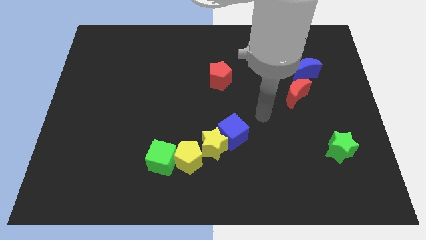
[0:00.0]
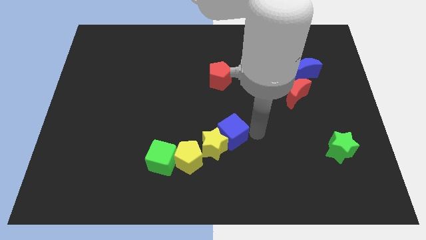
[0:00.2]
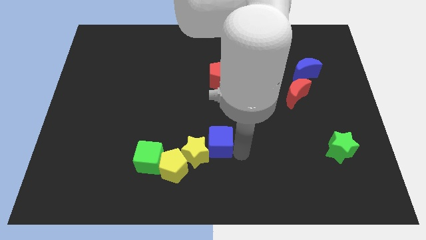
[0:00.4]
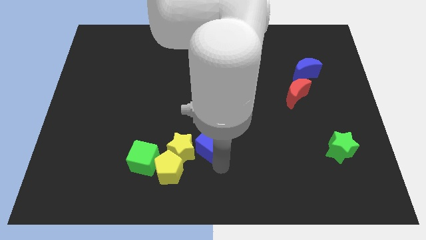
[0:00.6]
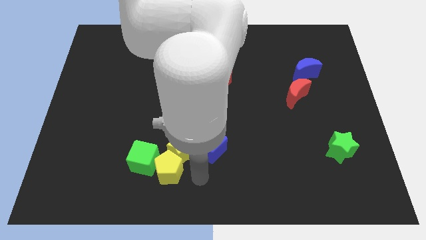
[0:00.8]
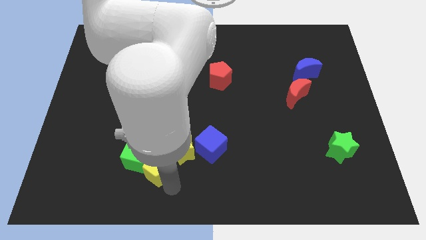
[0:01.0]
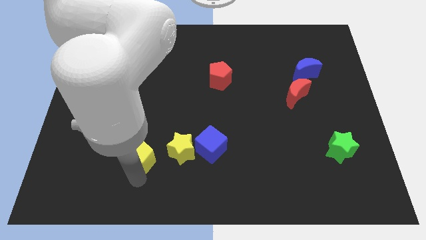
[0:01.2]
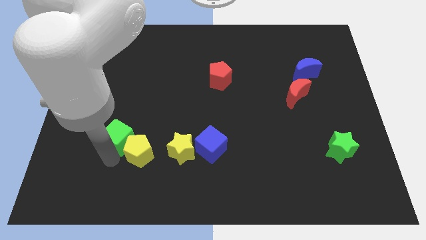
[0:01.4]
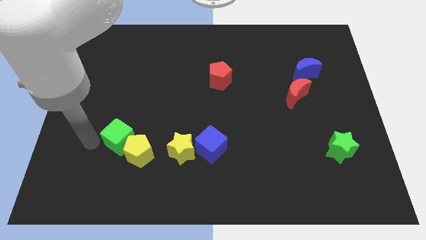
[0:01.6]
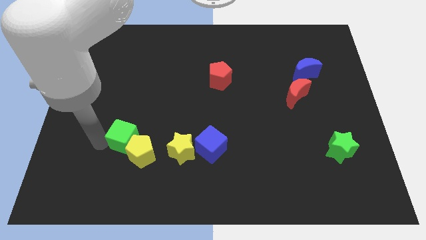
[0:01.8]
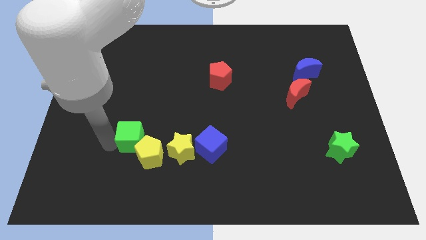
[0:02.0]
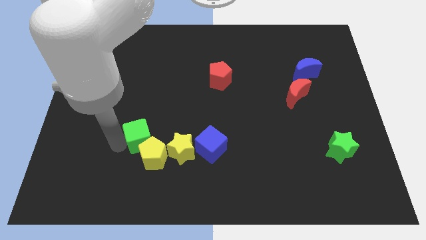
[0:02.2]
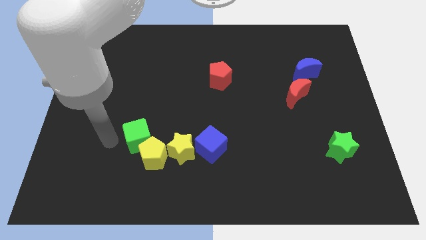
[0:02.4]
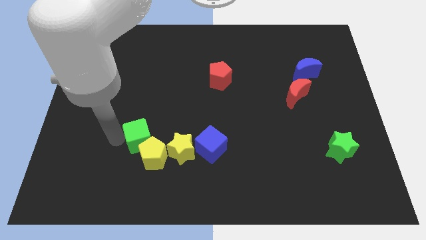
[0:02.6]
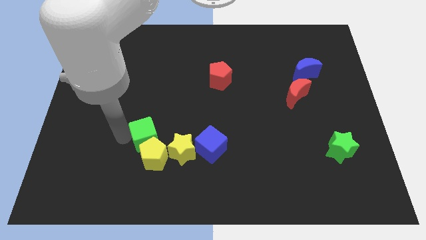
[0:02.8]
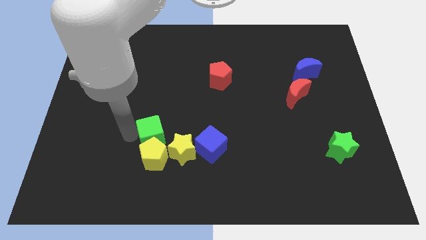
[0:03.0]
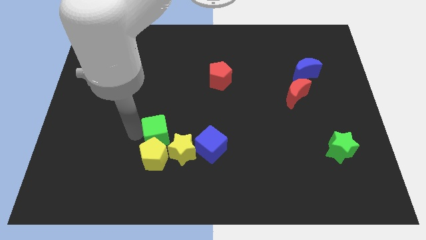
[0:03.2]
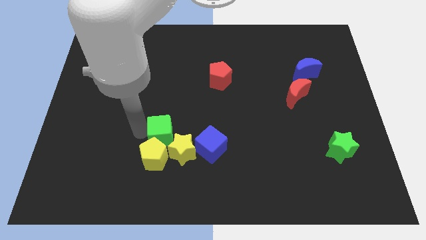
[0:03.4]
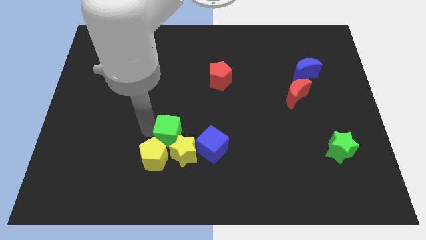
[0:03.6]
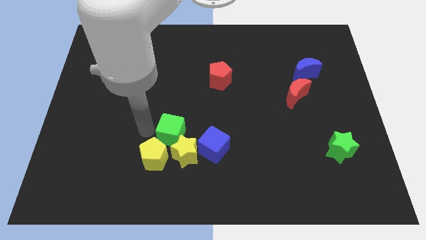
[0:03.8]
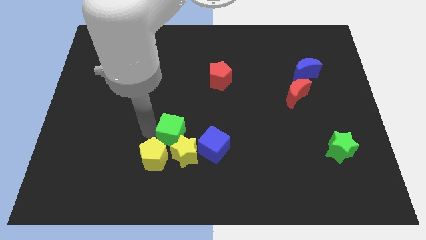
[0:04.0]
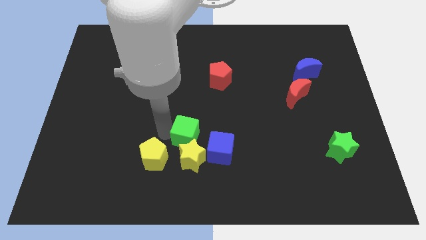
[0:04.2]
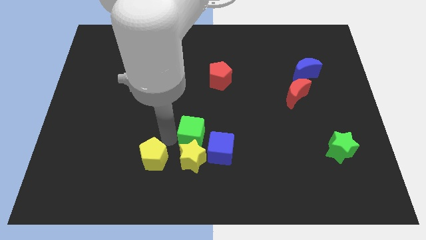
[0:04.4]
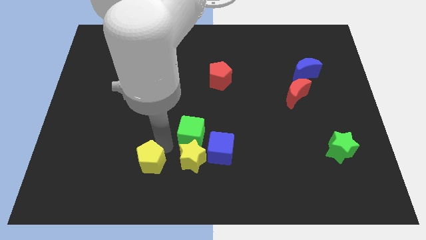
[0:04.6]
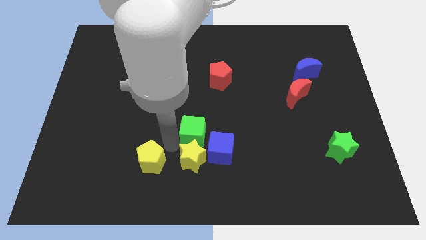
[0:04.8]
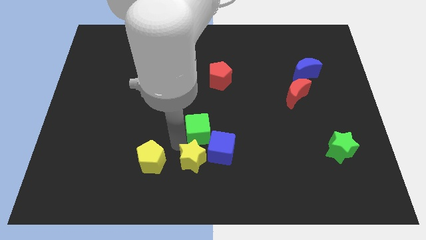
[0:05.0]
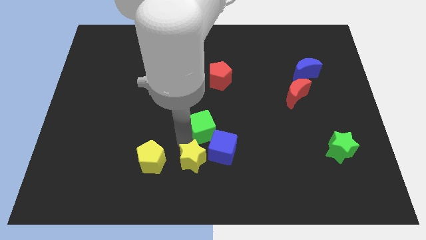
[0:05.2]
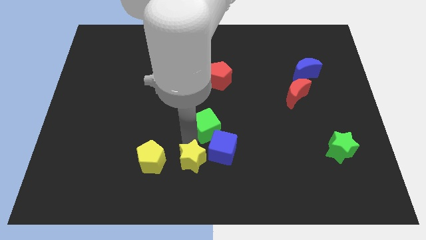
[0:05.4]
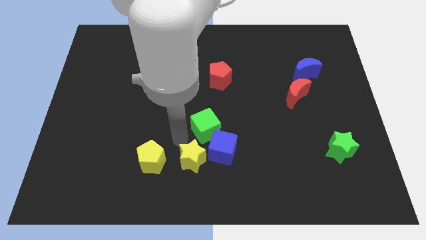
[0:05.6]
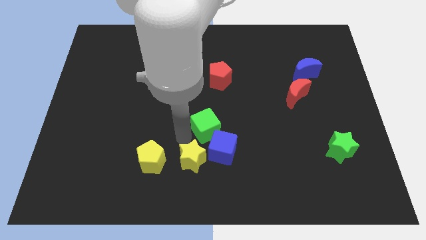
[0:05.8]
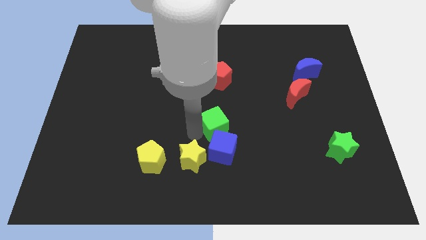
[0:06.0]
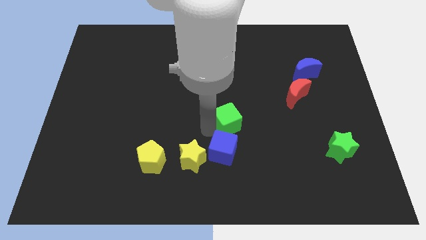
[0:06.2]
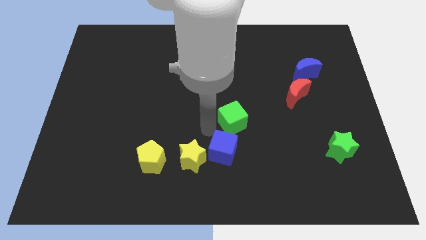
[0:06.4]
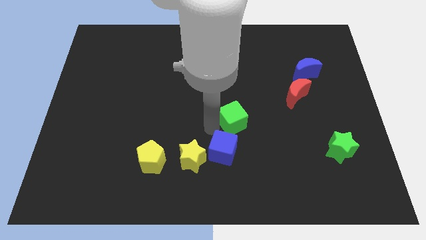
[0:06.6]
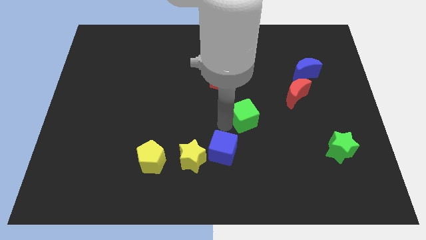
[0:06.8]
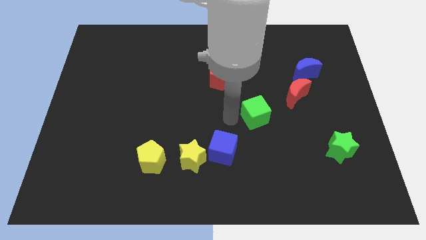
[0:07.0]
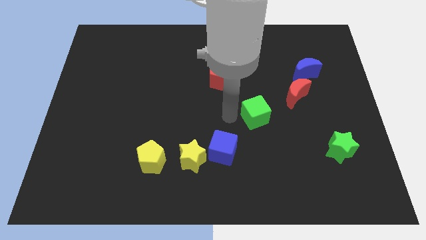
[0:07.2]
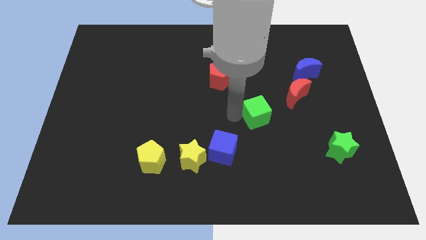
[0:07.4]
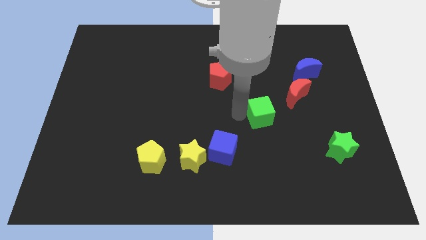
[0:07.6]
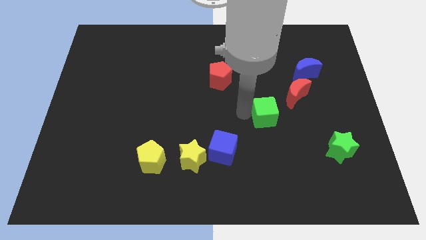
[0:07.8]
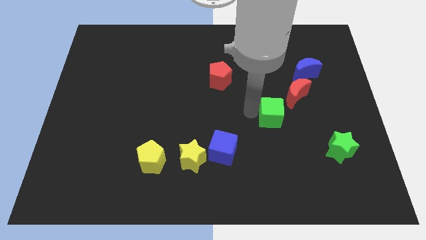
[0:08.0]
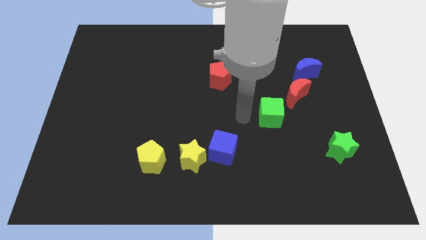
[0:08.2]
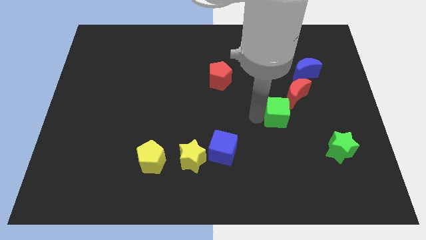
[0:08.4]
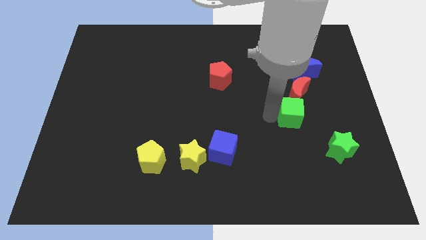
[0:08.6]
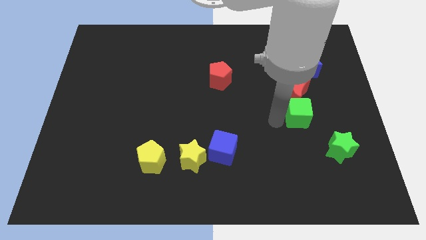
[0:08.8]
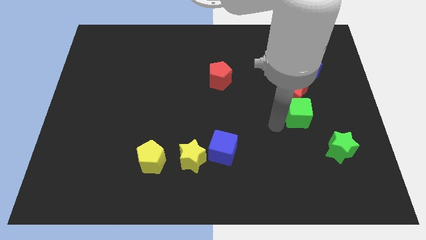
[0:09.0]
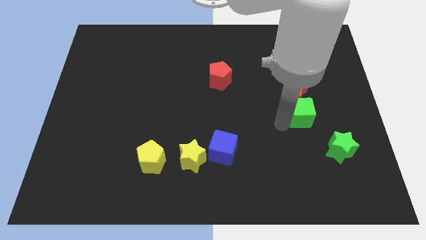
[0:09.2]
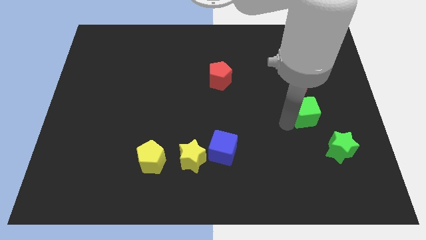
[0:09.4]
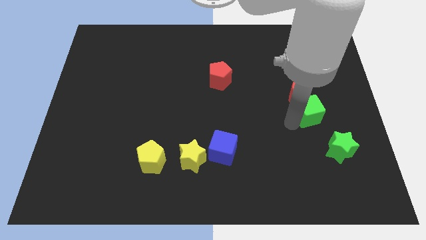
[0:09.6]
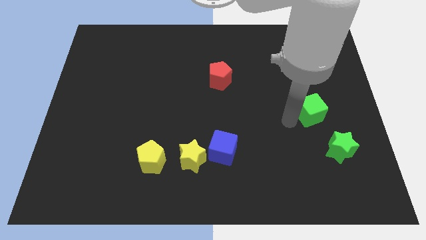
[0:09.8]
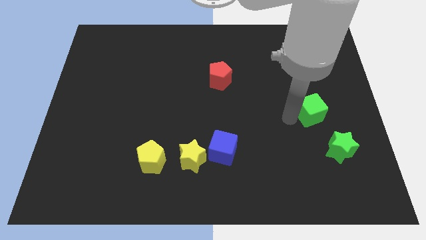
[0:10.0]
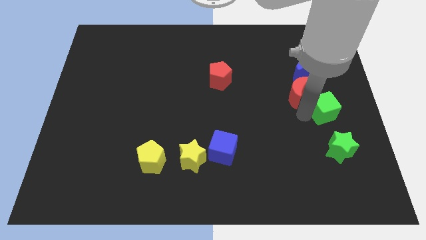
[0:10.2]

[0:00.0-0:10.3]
slide the green cube to the right side of the board

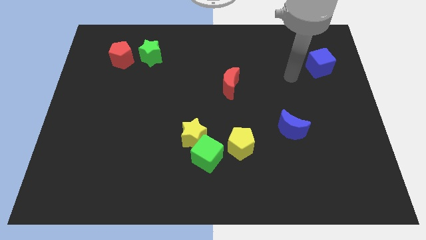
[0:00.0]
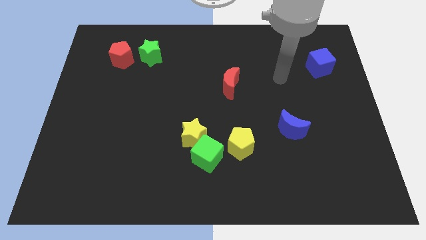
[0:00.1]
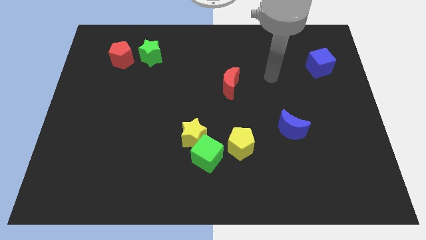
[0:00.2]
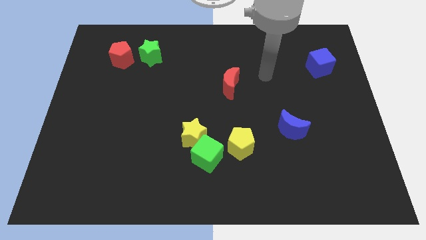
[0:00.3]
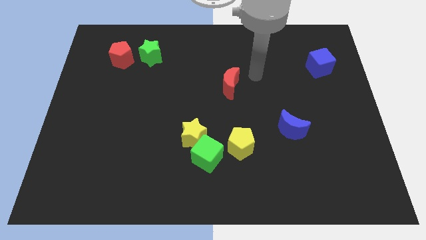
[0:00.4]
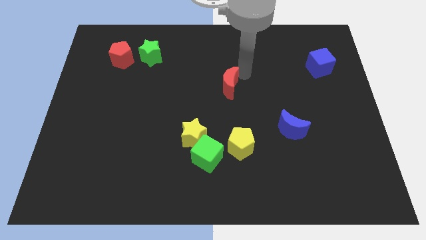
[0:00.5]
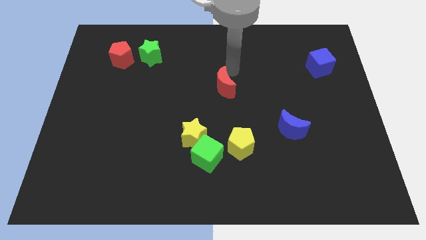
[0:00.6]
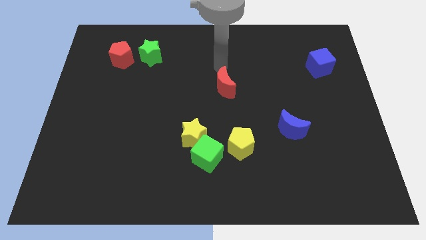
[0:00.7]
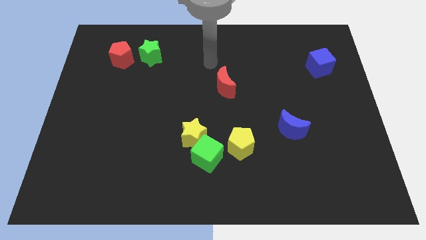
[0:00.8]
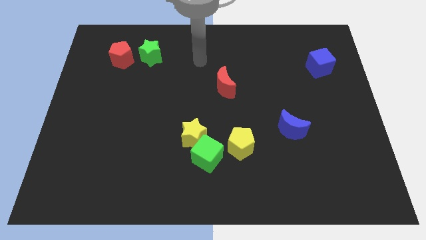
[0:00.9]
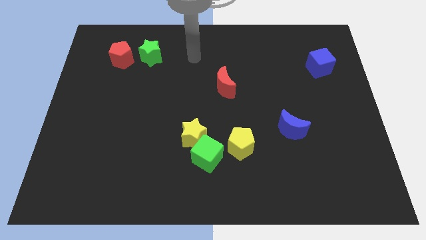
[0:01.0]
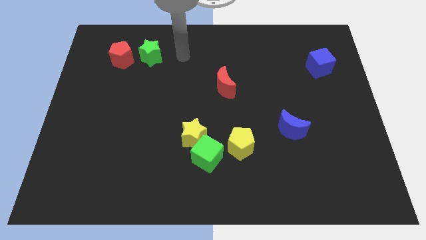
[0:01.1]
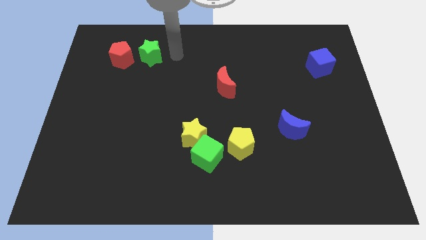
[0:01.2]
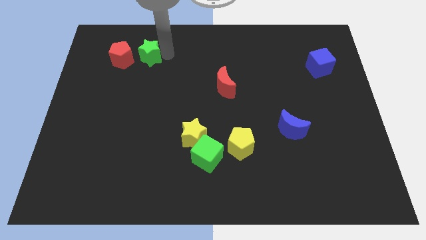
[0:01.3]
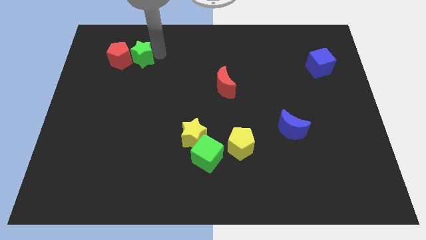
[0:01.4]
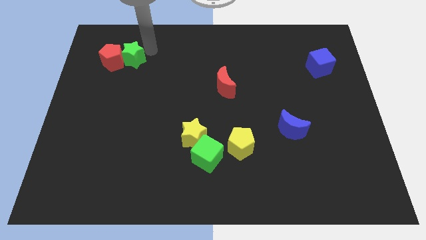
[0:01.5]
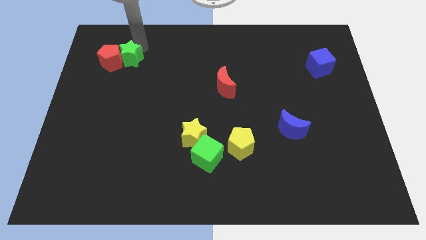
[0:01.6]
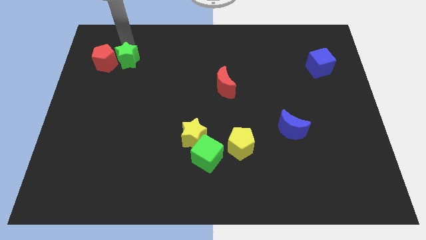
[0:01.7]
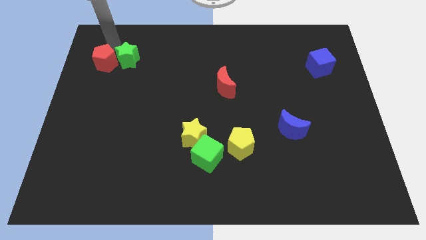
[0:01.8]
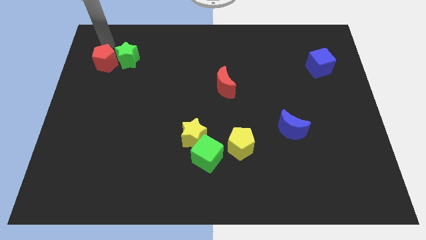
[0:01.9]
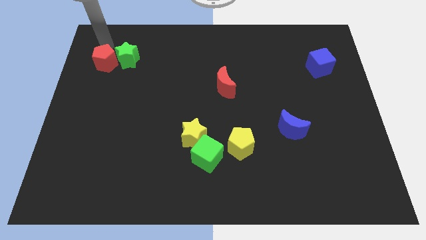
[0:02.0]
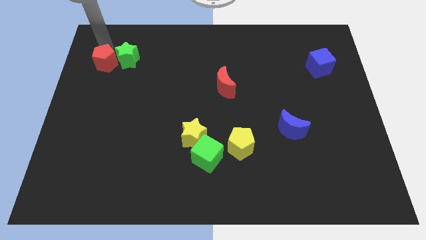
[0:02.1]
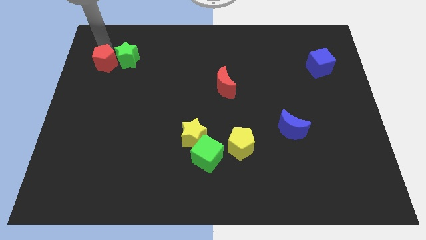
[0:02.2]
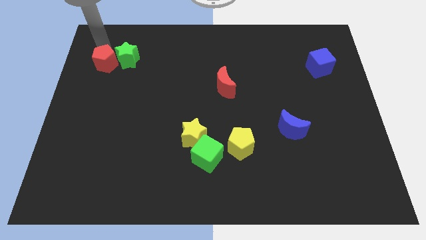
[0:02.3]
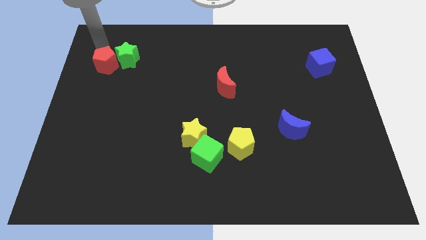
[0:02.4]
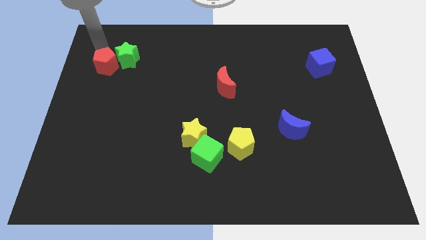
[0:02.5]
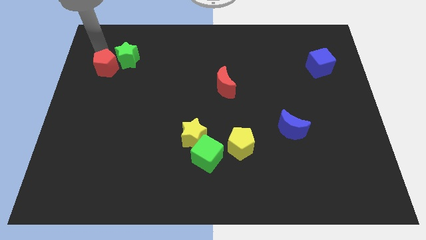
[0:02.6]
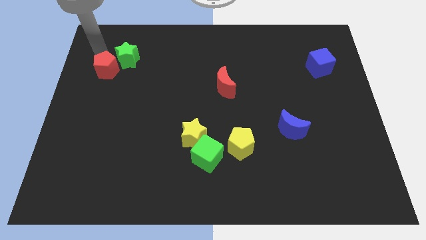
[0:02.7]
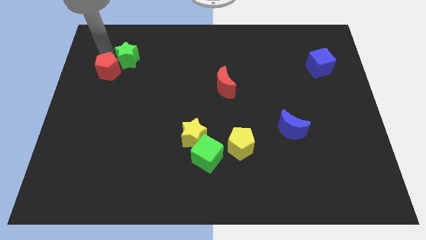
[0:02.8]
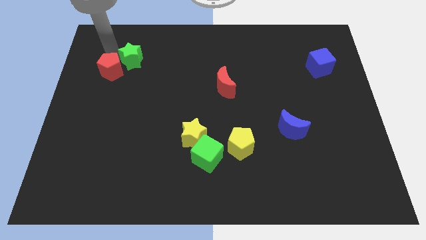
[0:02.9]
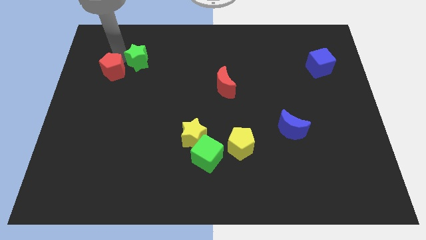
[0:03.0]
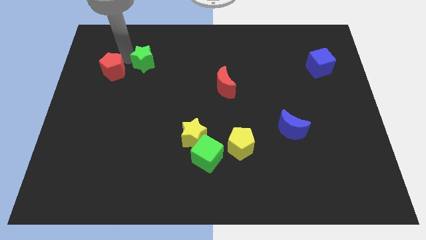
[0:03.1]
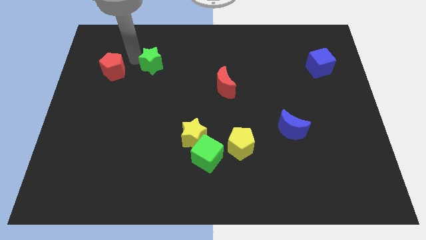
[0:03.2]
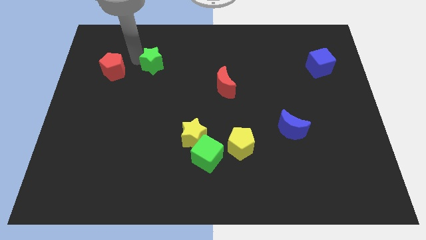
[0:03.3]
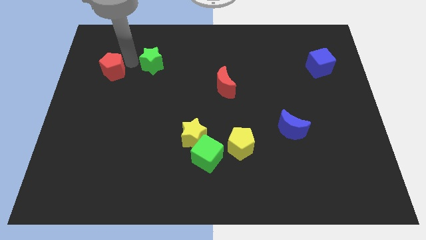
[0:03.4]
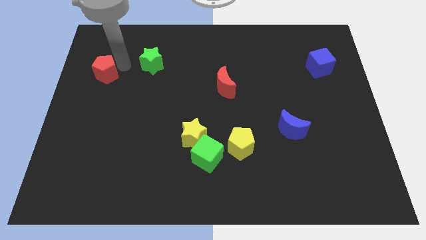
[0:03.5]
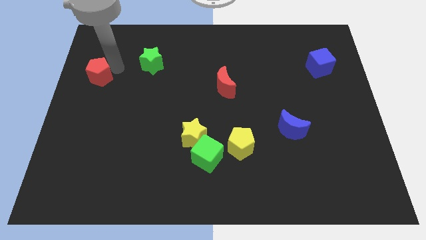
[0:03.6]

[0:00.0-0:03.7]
slide the red pentagon to the center left
